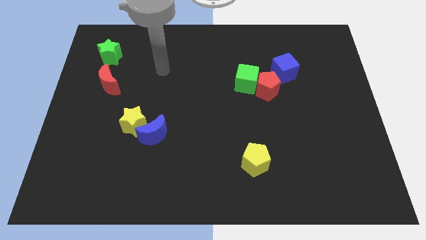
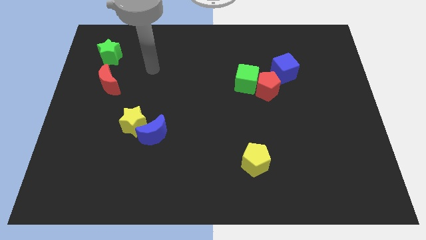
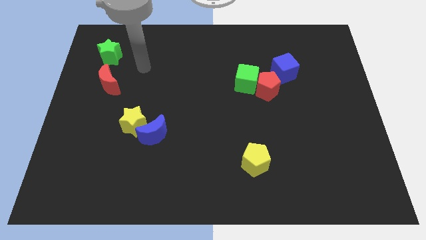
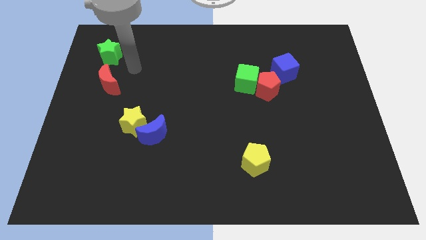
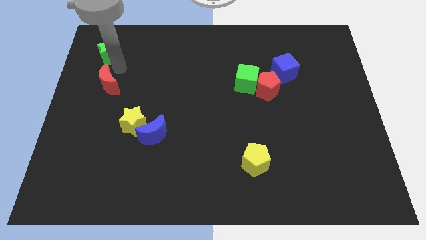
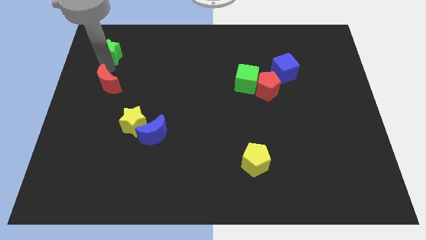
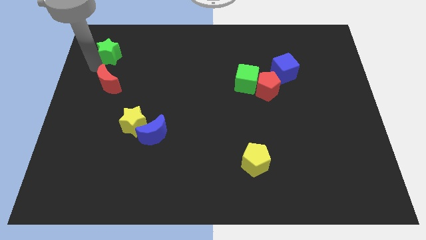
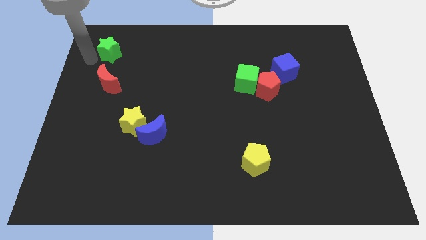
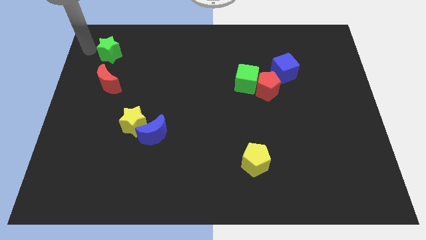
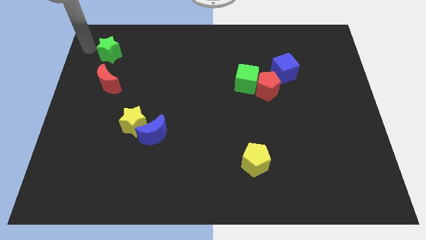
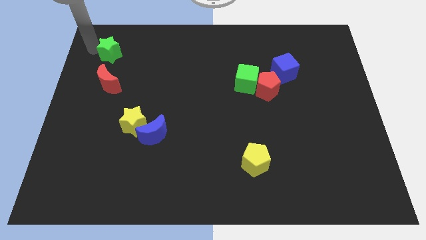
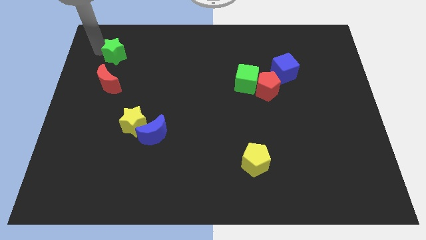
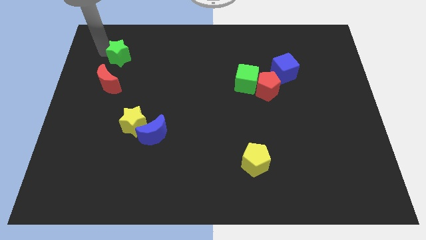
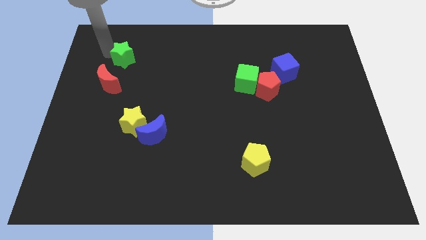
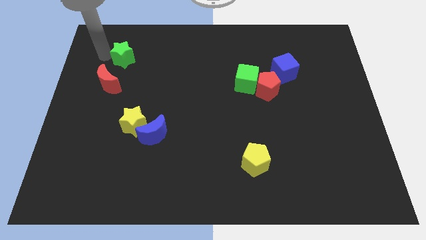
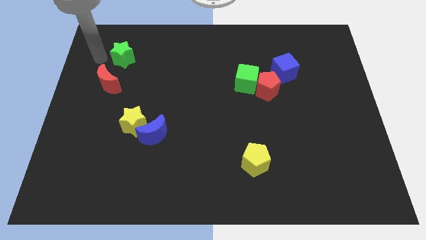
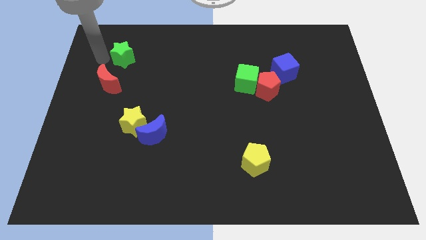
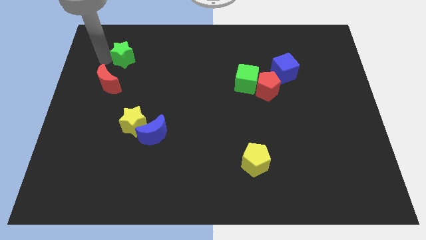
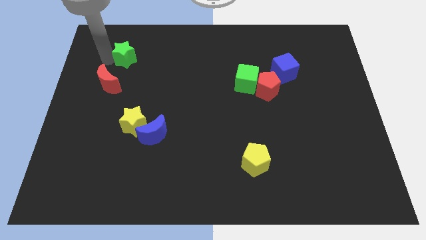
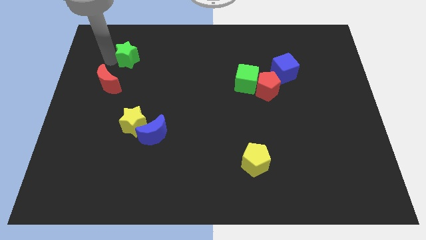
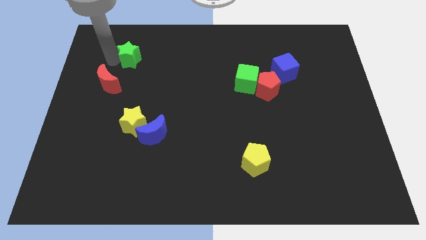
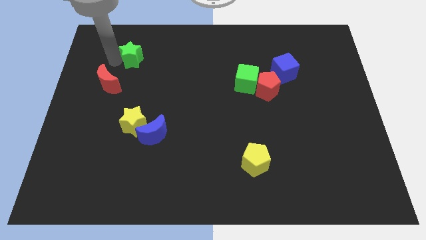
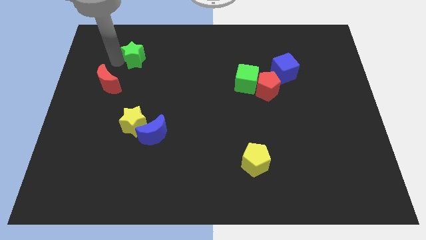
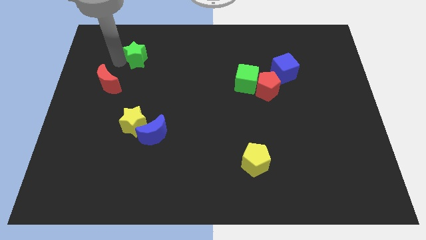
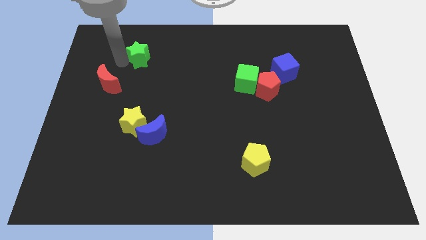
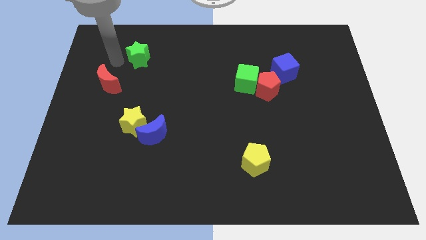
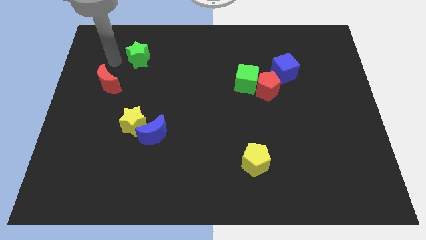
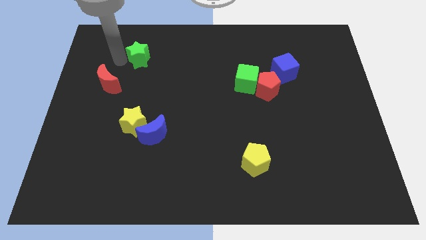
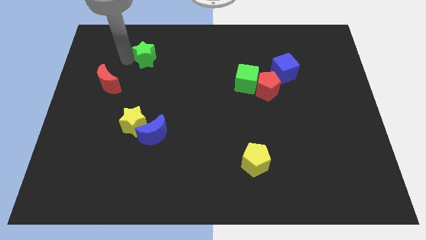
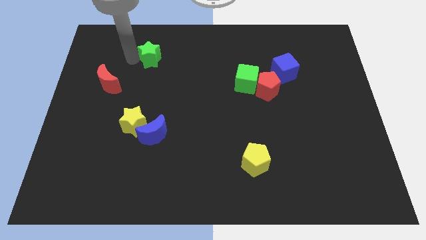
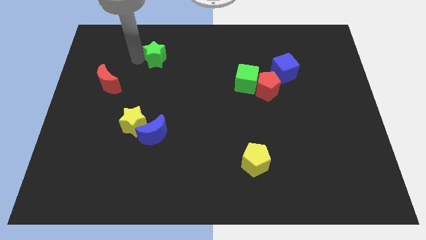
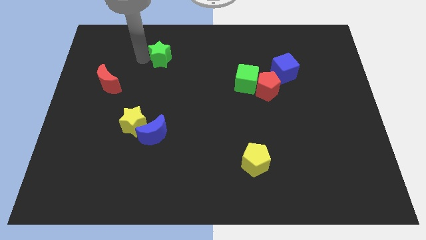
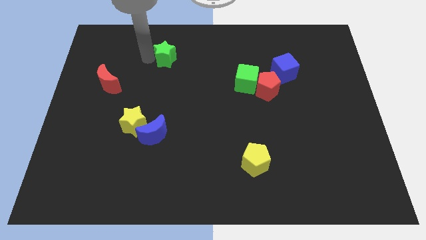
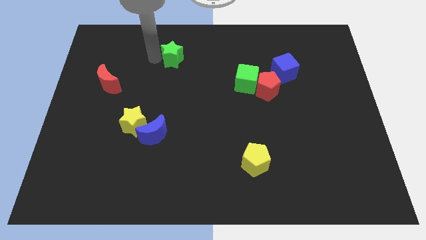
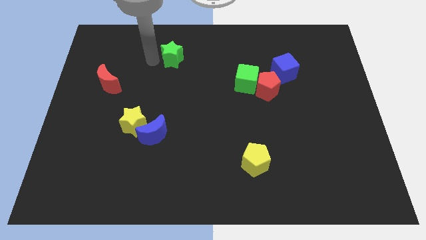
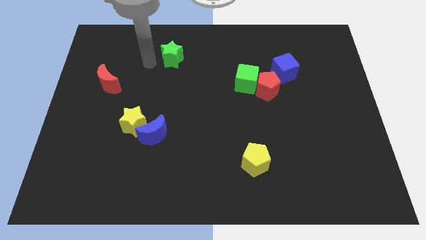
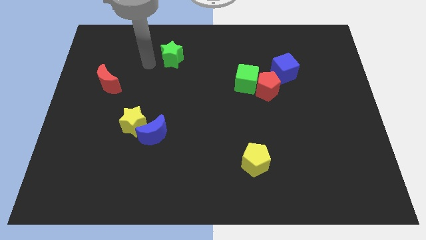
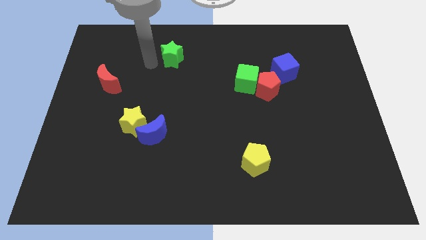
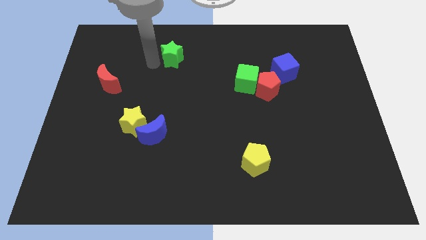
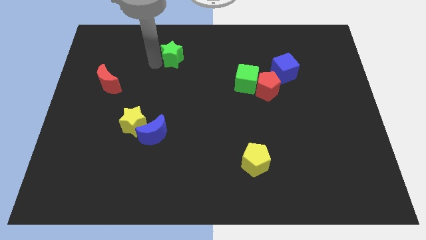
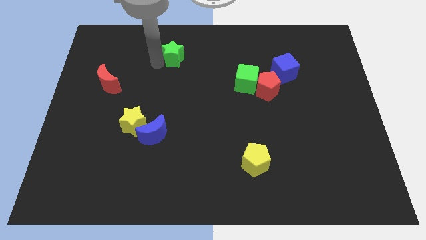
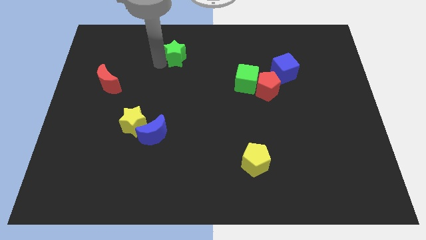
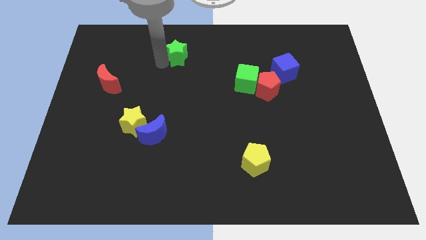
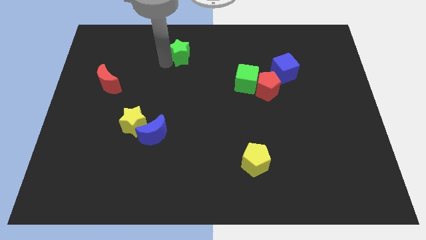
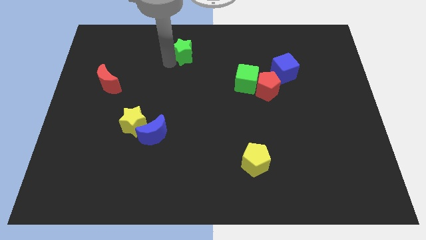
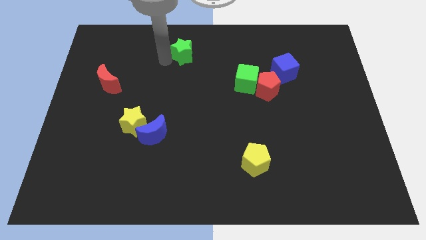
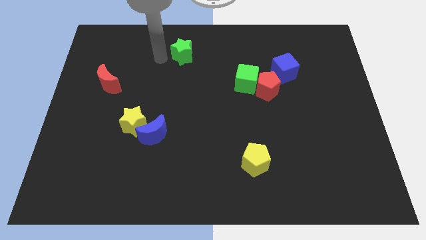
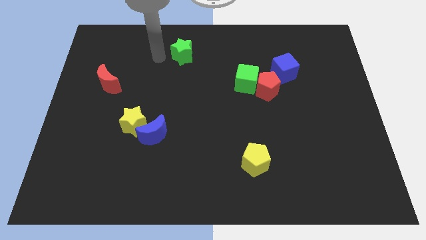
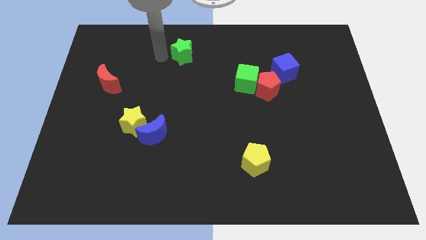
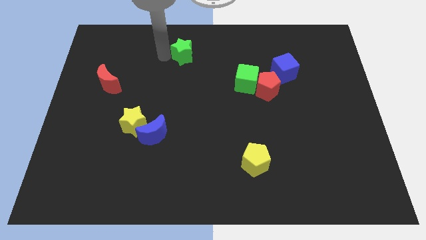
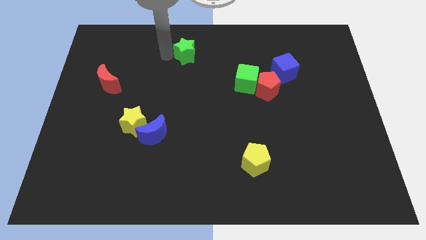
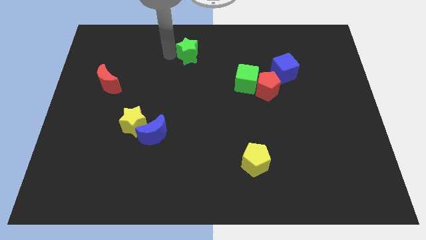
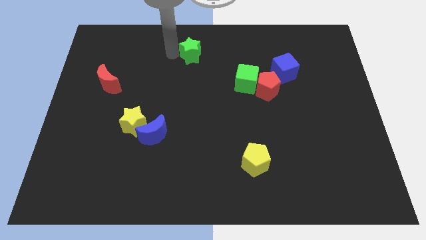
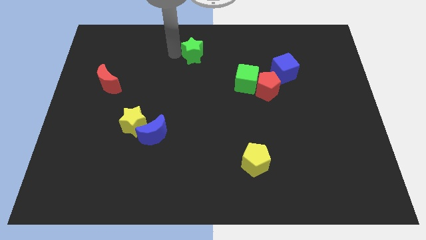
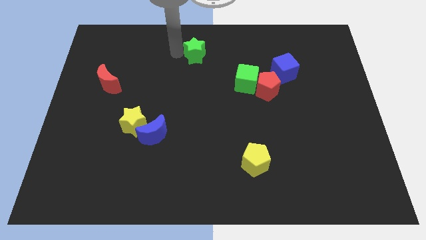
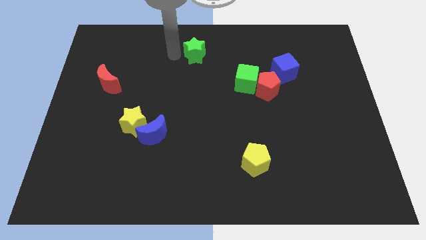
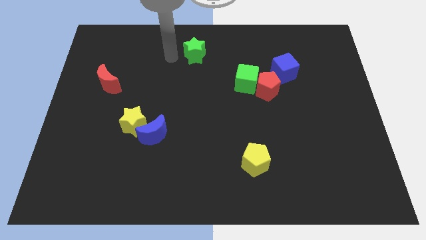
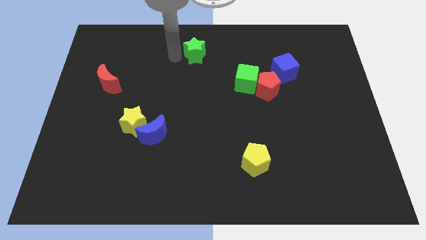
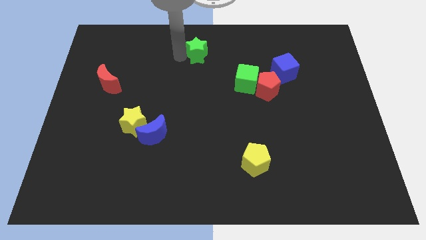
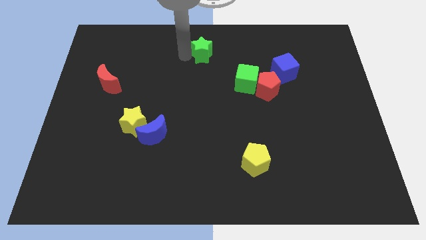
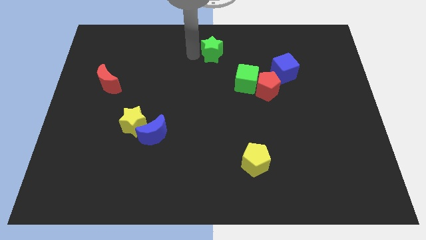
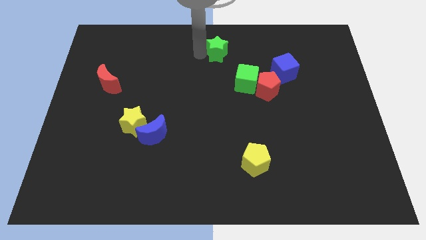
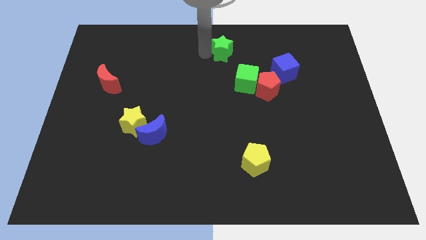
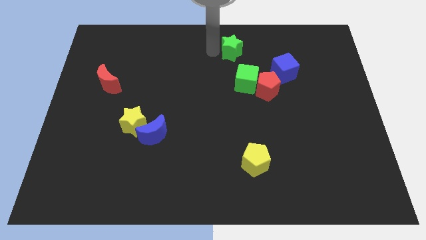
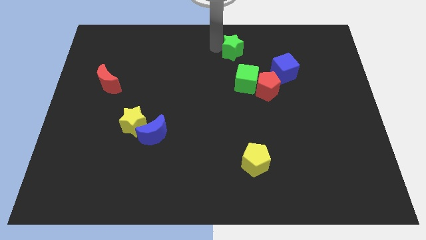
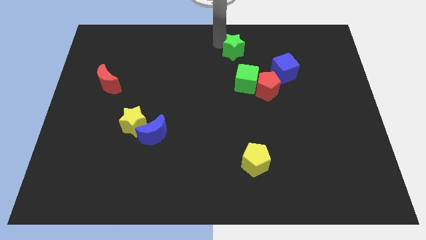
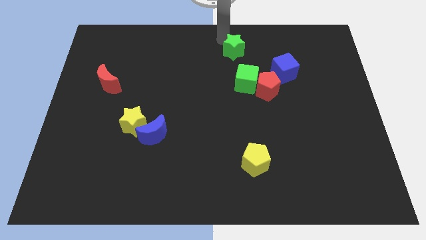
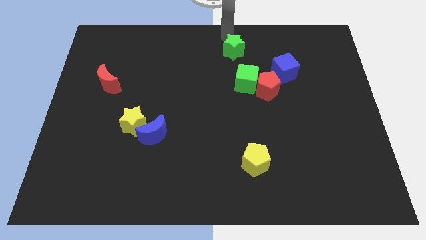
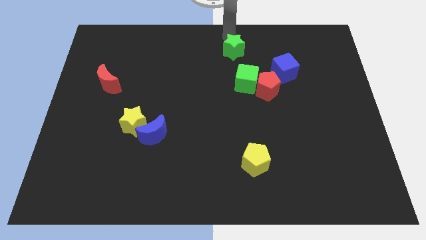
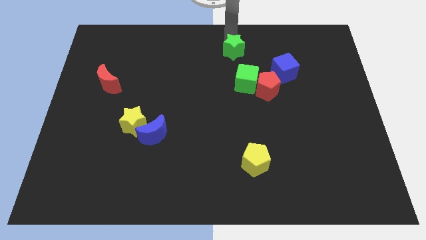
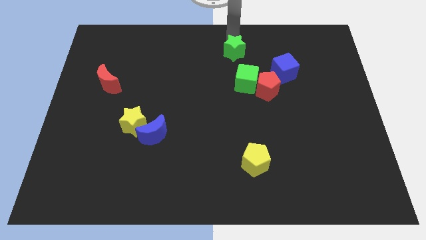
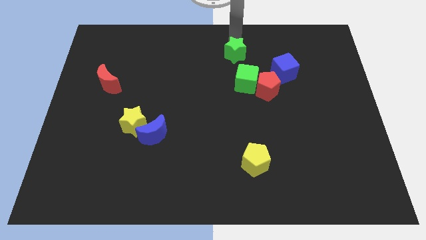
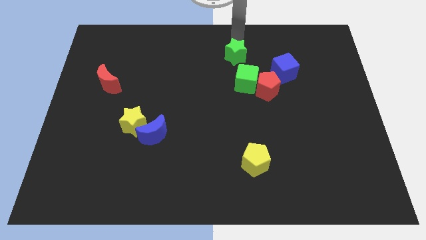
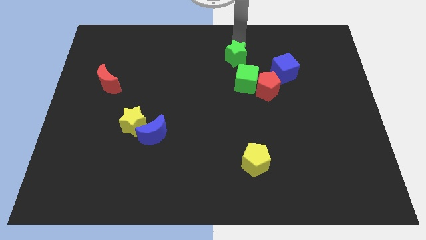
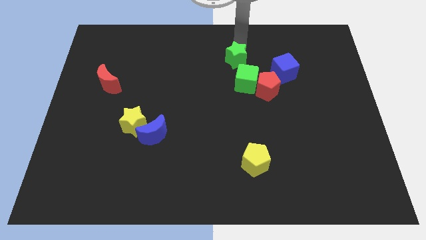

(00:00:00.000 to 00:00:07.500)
slide the green star diagonally up and to the left of the red pentagon
